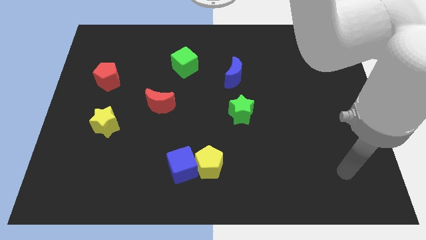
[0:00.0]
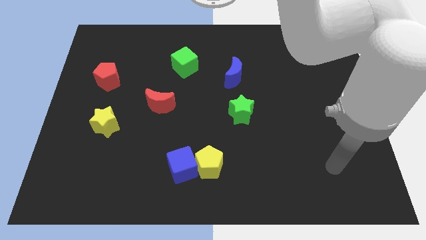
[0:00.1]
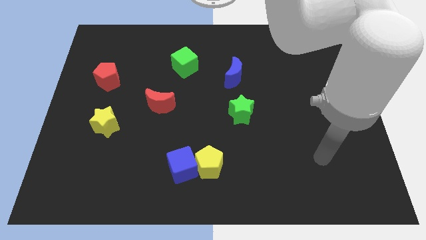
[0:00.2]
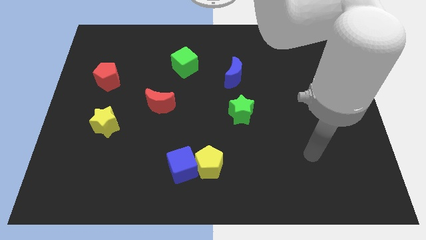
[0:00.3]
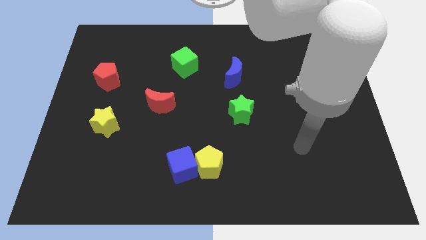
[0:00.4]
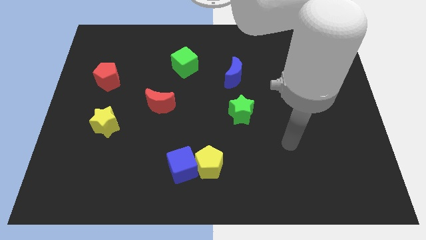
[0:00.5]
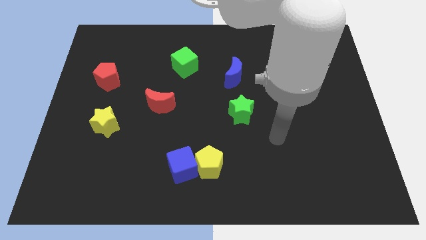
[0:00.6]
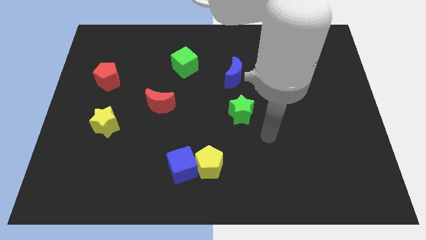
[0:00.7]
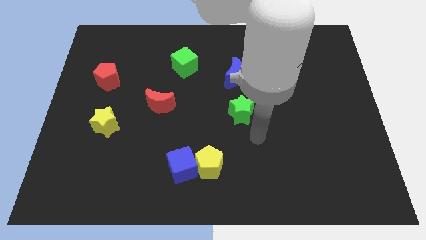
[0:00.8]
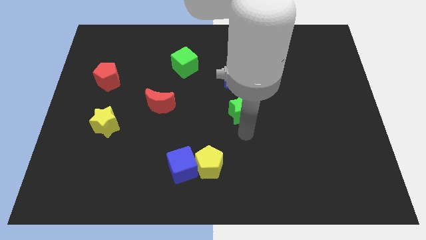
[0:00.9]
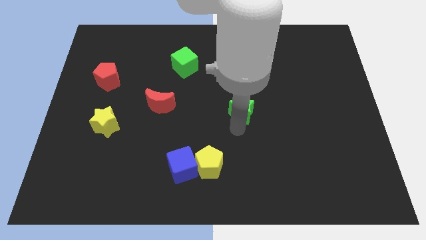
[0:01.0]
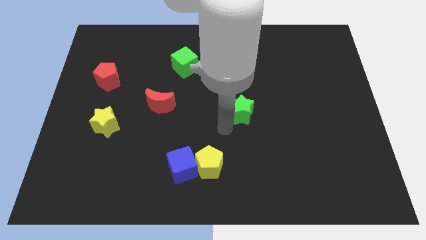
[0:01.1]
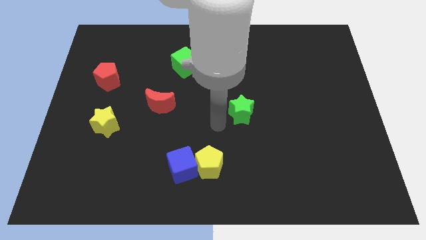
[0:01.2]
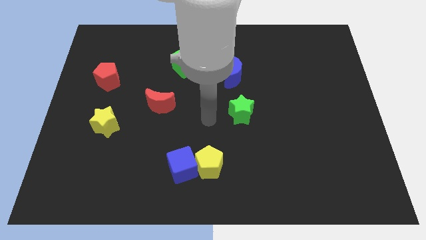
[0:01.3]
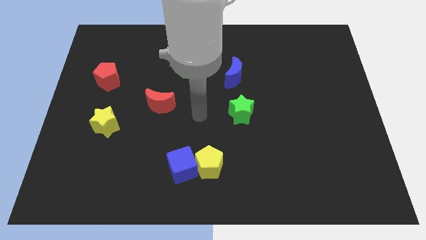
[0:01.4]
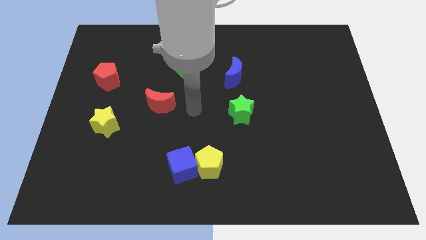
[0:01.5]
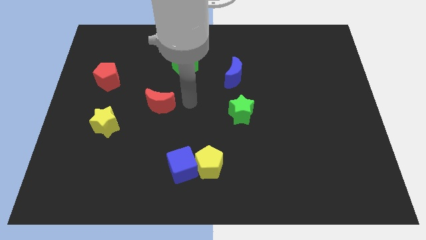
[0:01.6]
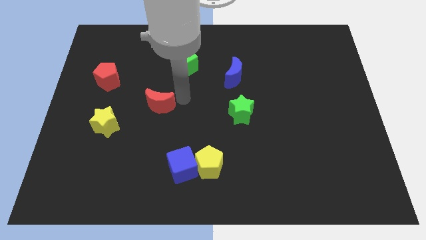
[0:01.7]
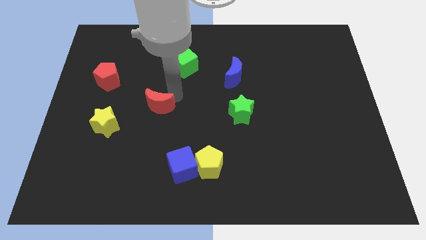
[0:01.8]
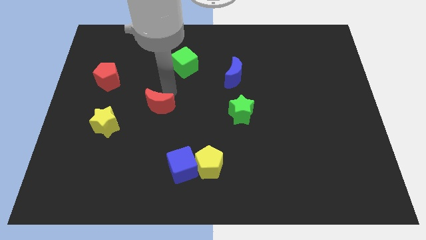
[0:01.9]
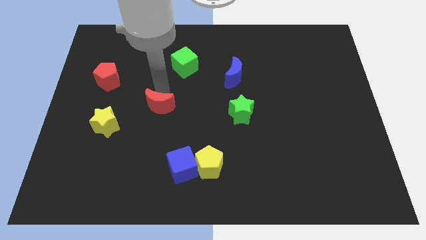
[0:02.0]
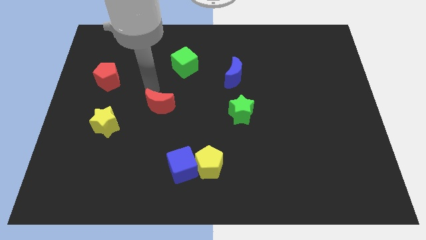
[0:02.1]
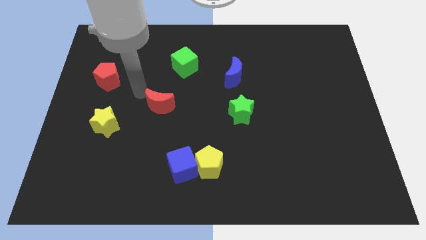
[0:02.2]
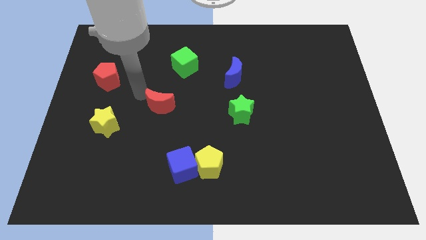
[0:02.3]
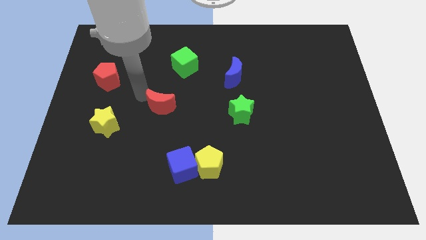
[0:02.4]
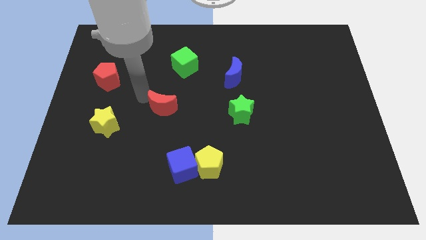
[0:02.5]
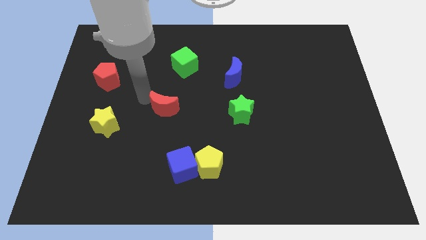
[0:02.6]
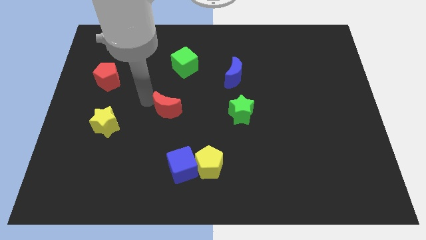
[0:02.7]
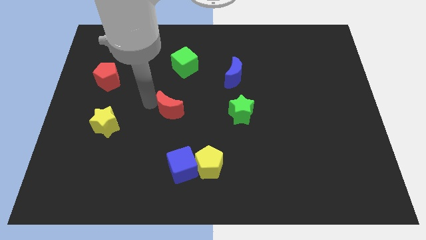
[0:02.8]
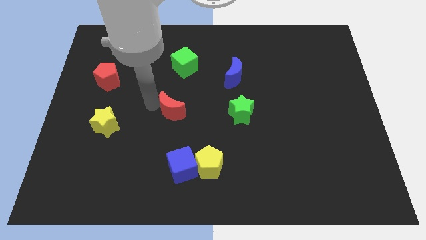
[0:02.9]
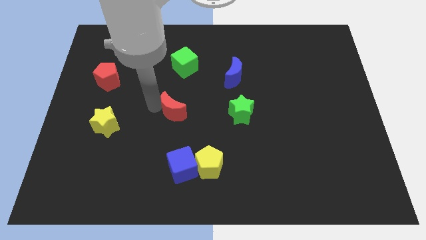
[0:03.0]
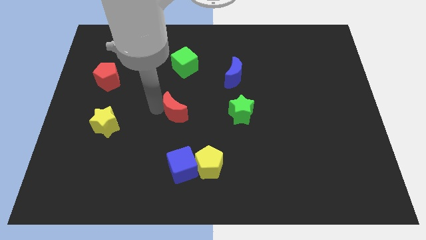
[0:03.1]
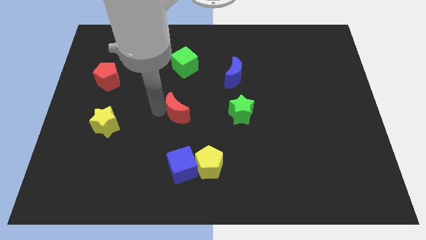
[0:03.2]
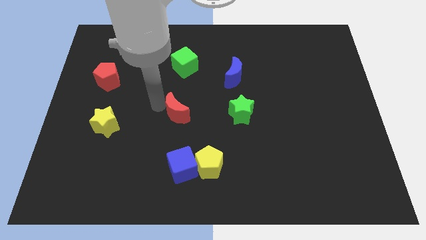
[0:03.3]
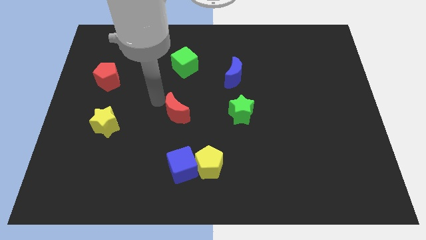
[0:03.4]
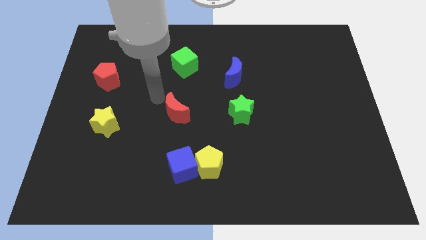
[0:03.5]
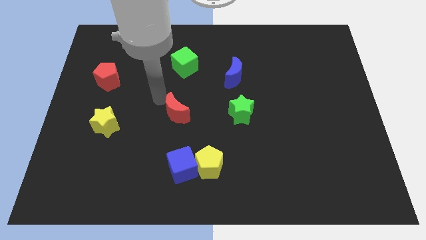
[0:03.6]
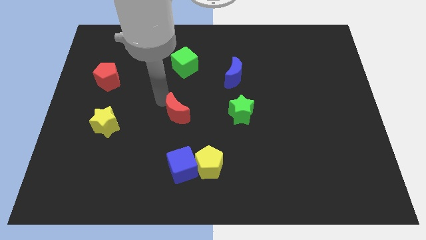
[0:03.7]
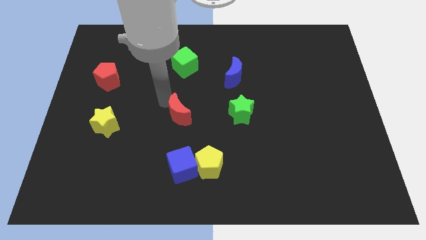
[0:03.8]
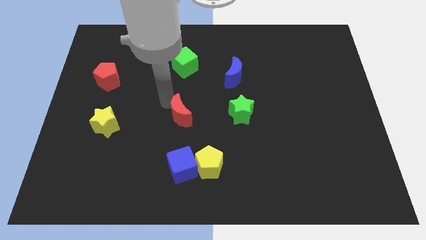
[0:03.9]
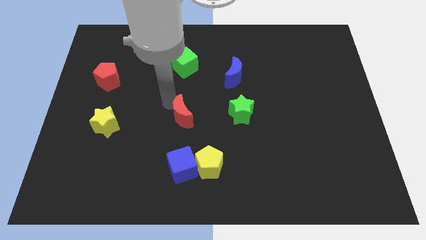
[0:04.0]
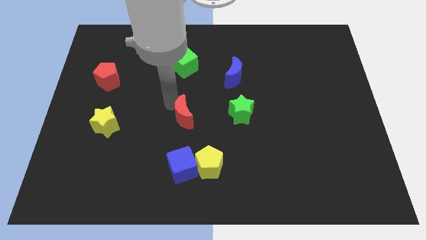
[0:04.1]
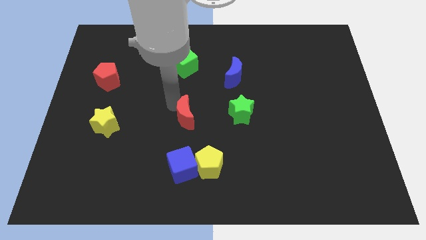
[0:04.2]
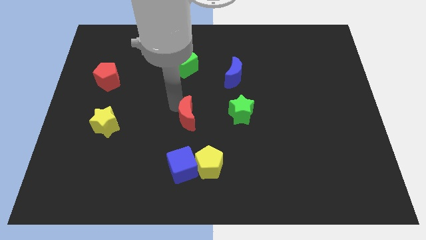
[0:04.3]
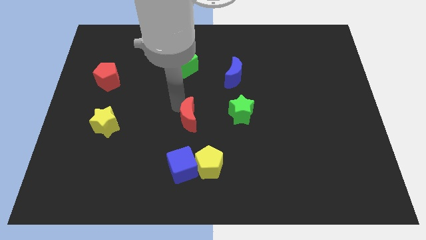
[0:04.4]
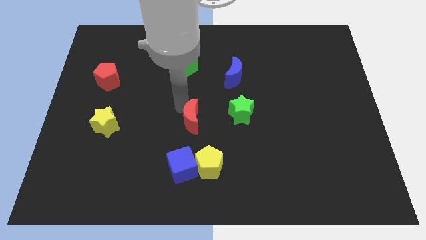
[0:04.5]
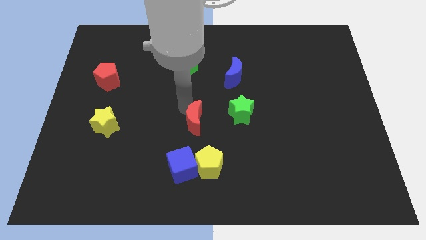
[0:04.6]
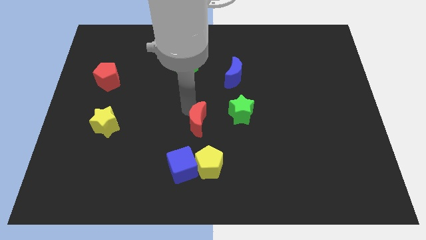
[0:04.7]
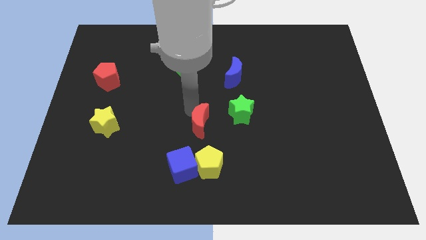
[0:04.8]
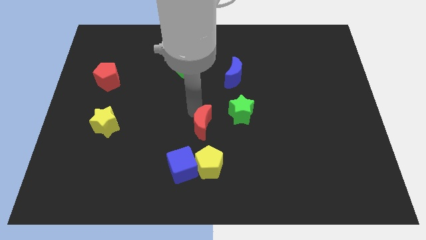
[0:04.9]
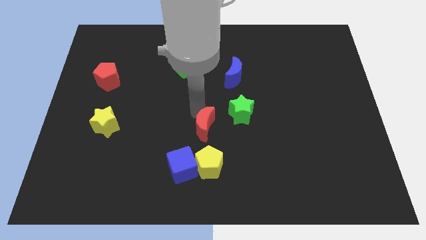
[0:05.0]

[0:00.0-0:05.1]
move the red moon diagonally up and to the right of the blue cube

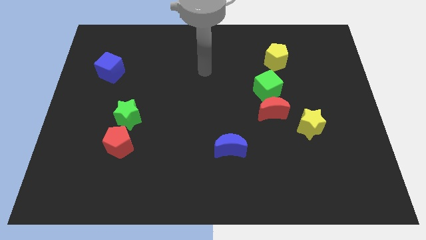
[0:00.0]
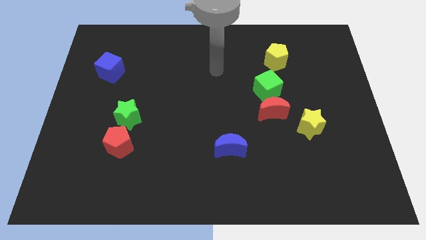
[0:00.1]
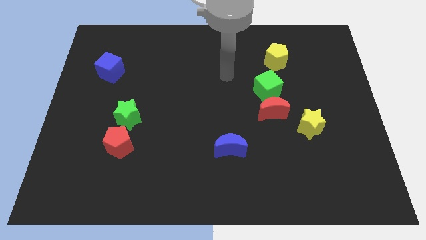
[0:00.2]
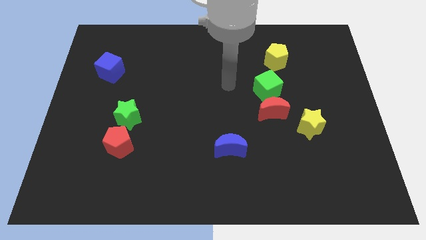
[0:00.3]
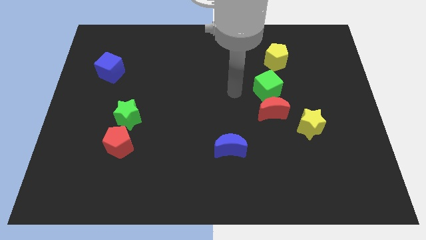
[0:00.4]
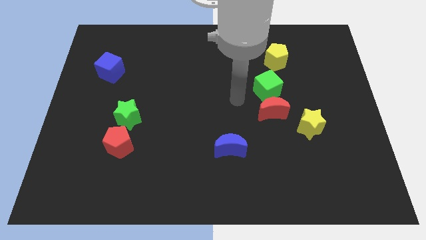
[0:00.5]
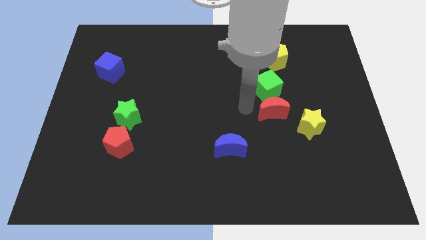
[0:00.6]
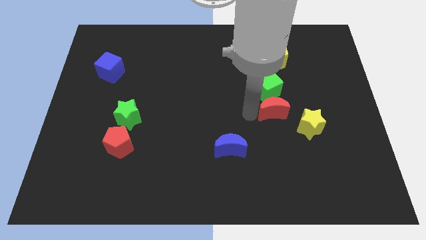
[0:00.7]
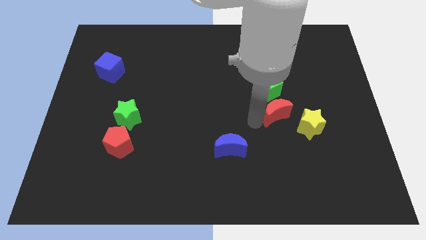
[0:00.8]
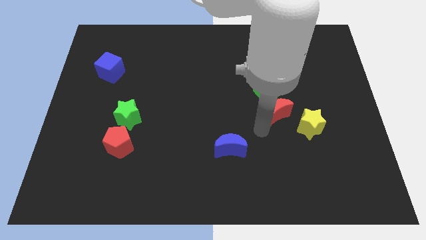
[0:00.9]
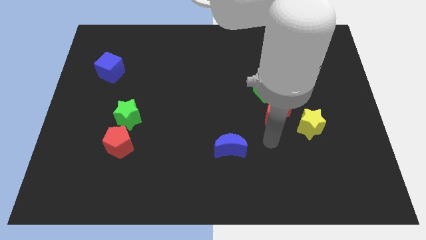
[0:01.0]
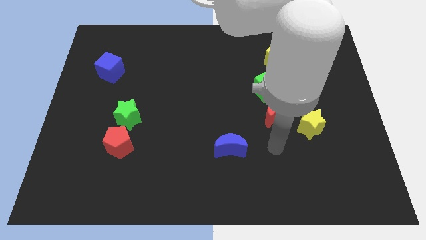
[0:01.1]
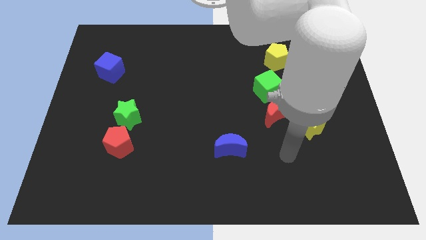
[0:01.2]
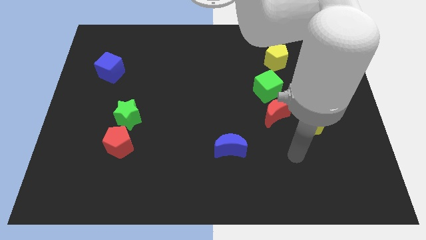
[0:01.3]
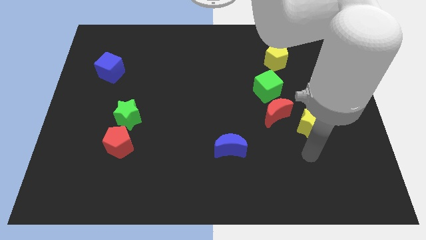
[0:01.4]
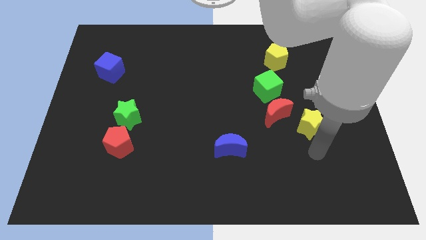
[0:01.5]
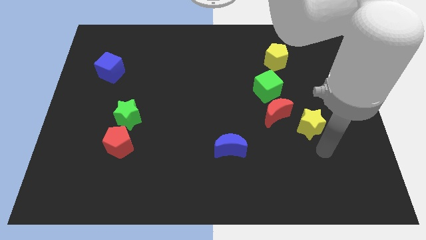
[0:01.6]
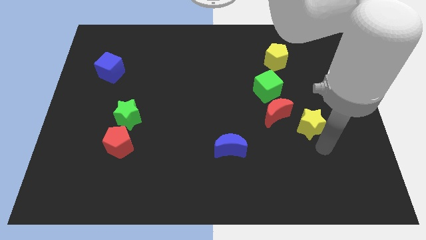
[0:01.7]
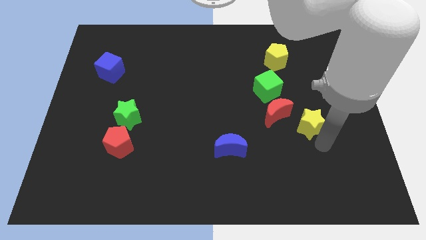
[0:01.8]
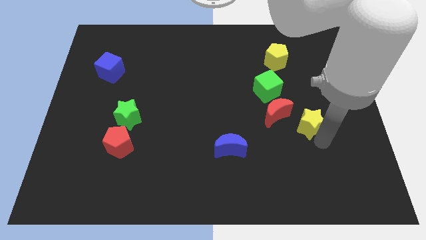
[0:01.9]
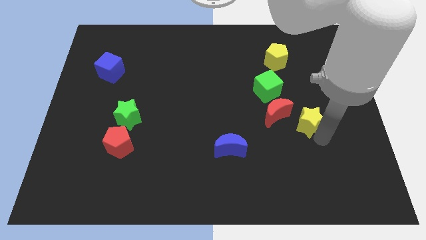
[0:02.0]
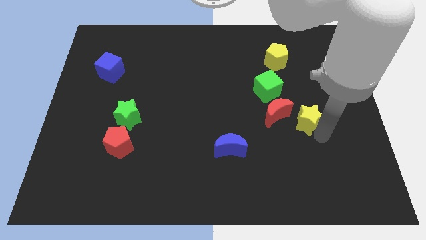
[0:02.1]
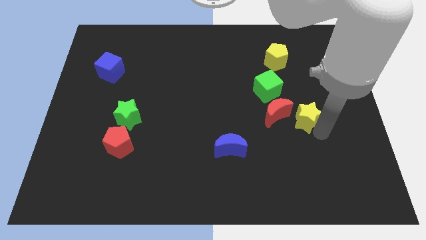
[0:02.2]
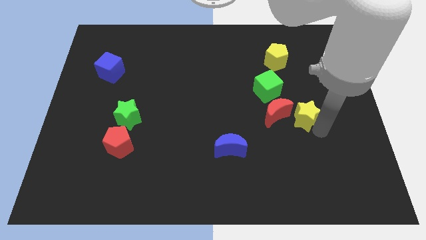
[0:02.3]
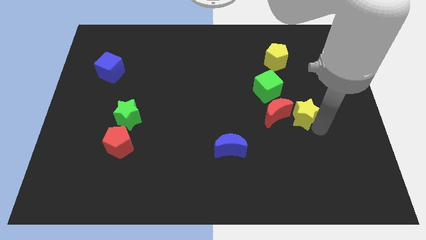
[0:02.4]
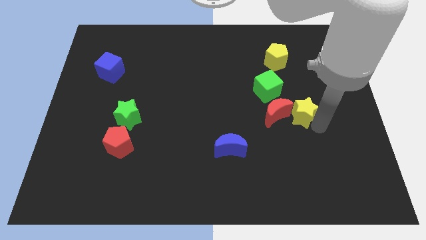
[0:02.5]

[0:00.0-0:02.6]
put the yellow star to the top right side of the red moon
